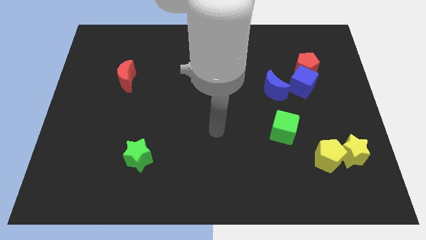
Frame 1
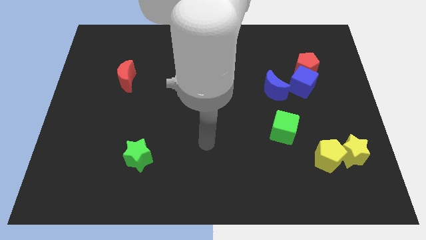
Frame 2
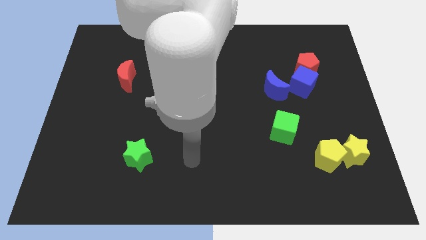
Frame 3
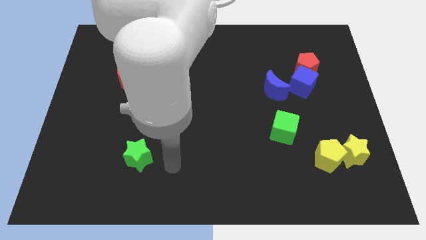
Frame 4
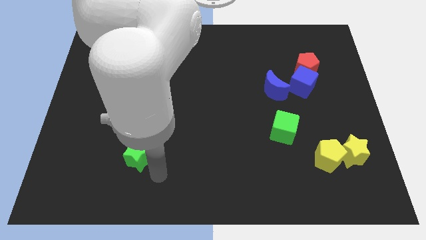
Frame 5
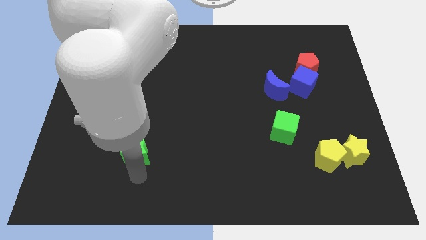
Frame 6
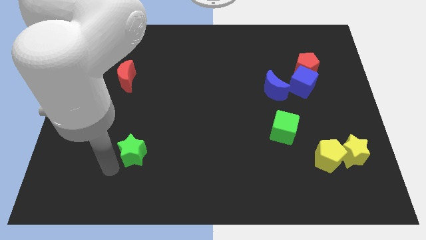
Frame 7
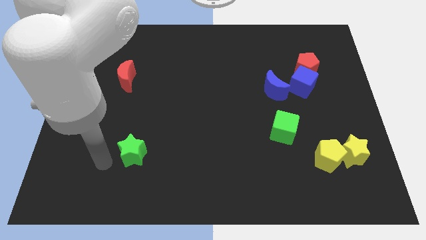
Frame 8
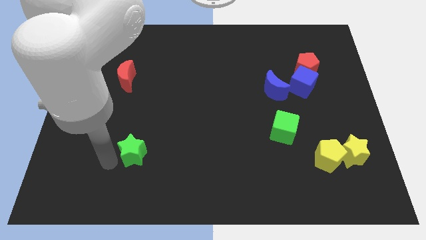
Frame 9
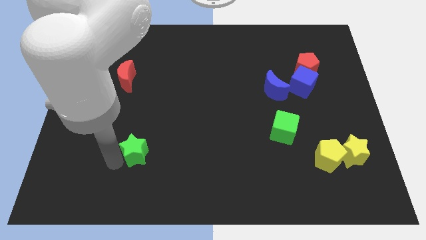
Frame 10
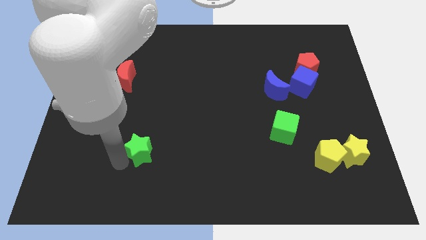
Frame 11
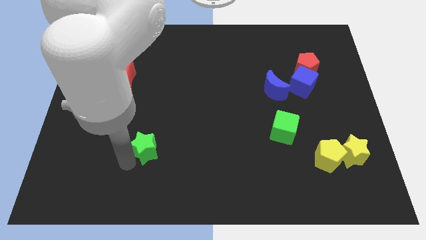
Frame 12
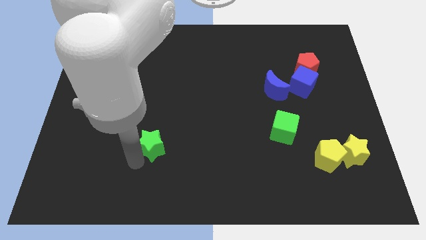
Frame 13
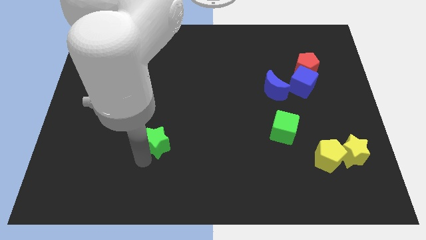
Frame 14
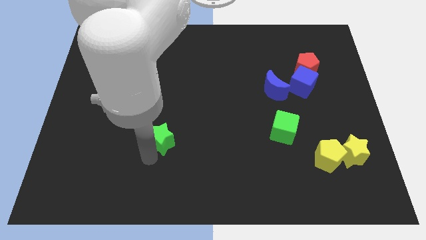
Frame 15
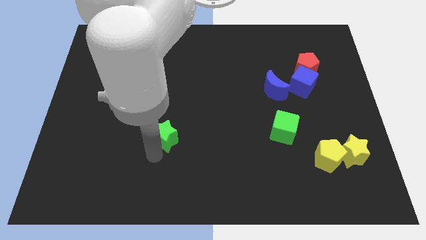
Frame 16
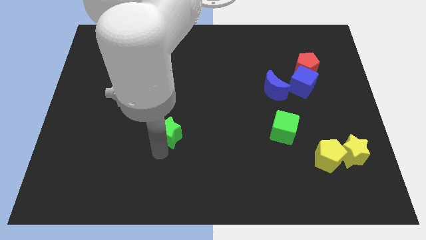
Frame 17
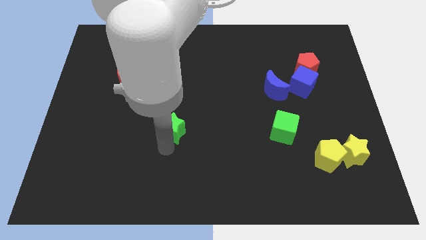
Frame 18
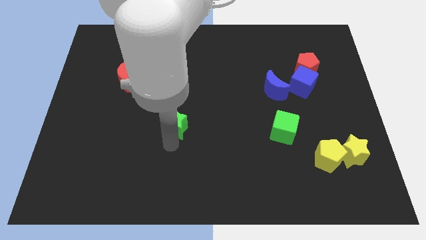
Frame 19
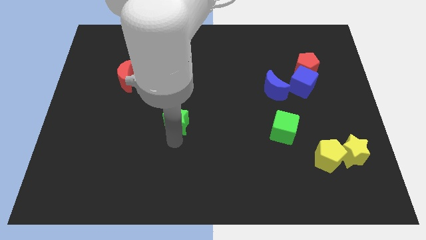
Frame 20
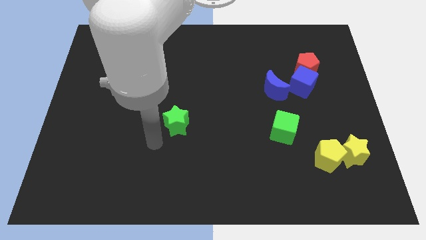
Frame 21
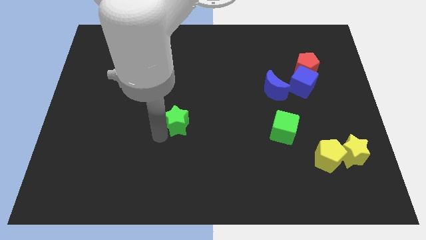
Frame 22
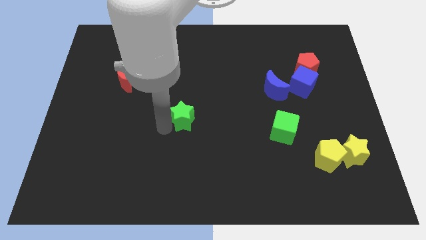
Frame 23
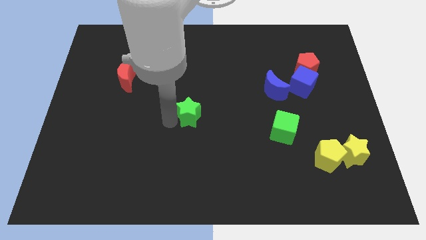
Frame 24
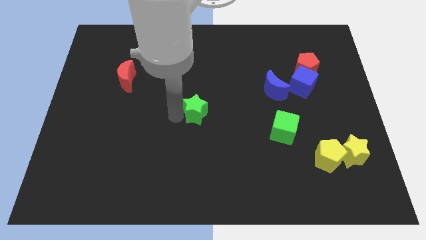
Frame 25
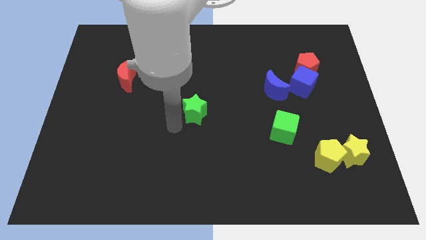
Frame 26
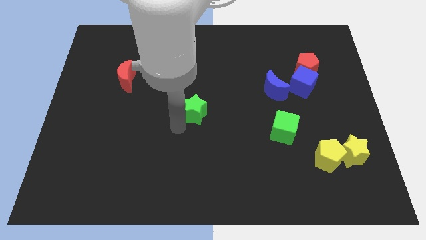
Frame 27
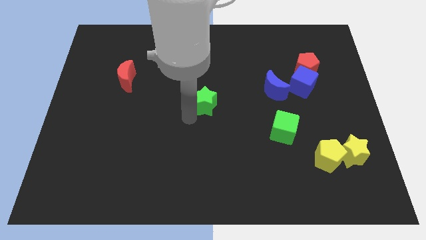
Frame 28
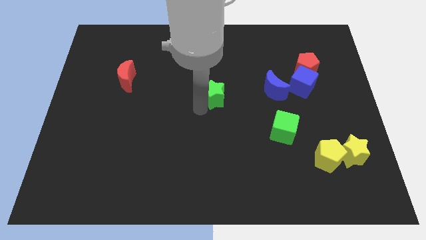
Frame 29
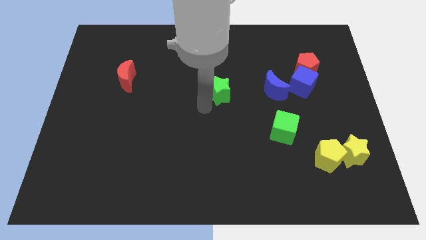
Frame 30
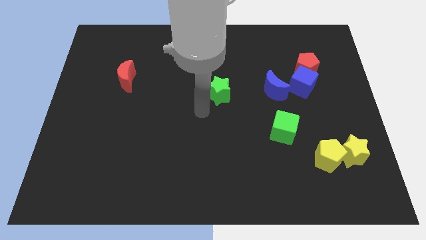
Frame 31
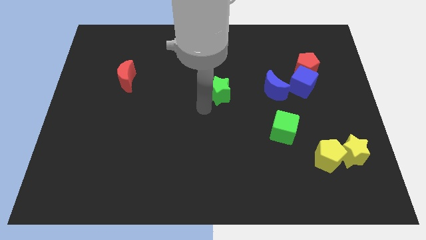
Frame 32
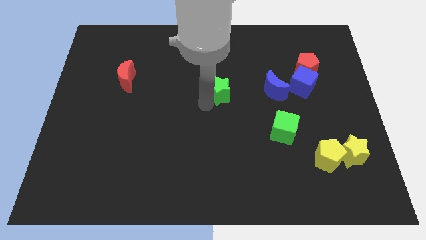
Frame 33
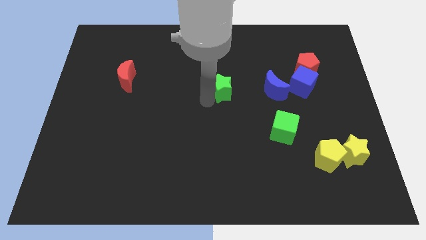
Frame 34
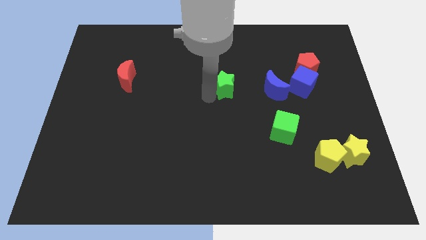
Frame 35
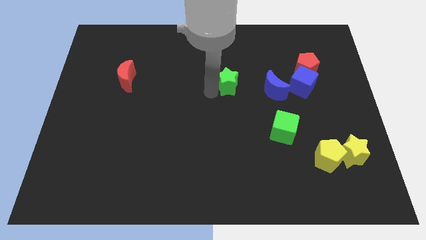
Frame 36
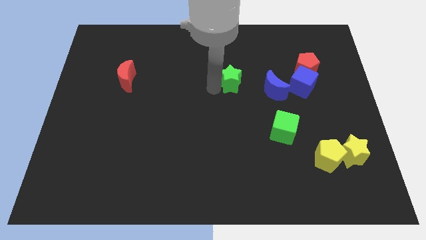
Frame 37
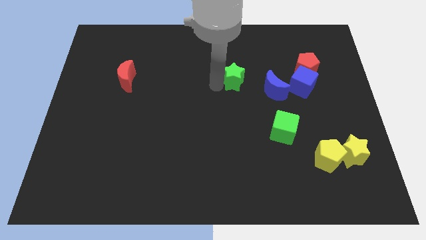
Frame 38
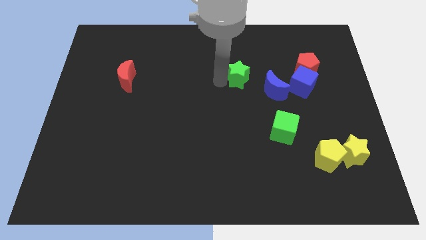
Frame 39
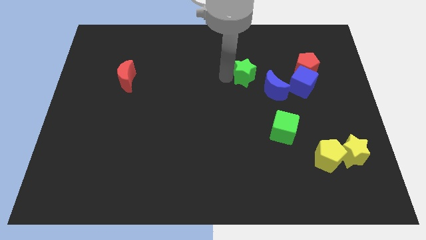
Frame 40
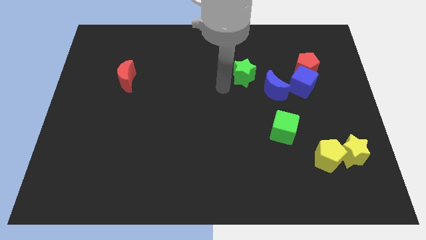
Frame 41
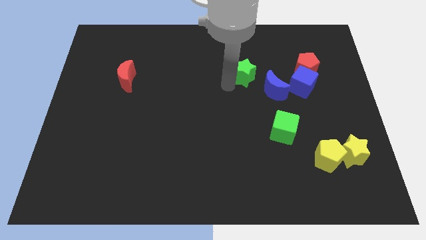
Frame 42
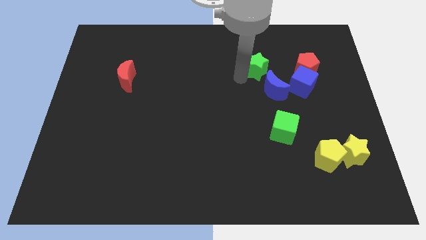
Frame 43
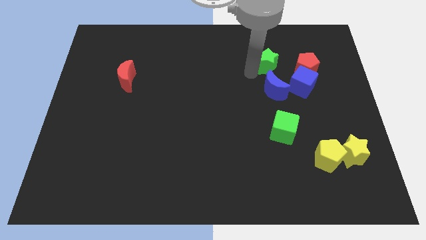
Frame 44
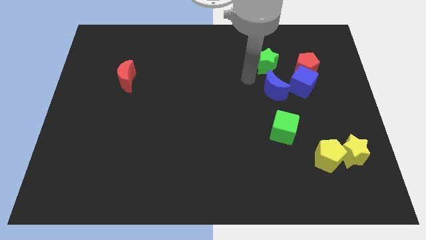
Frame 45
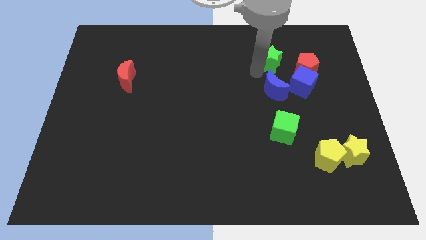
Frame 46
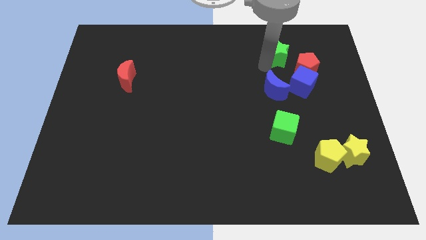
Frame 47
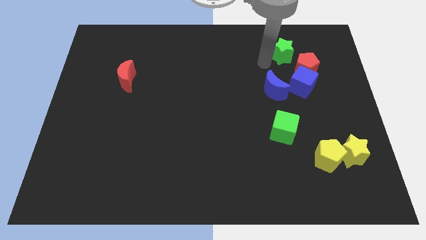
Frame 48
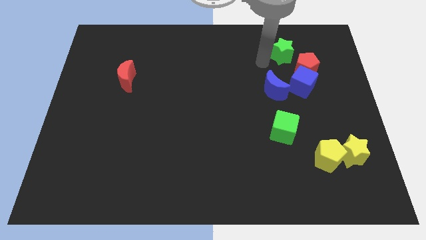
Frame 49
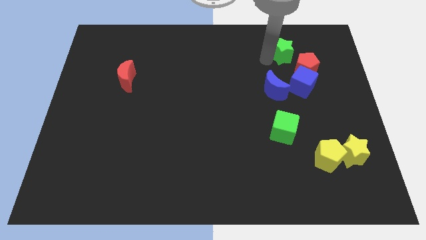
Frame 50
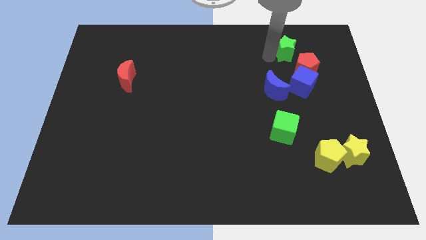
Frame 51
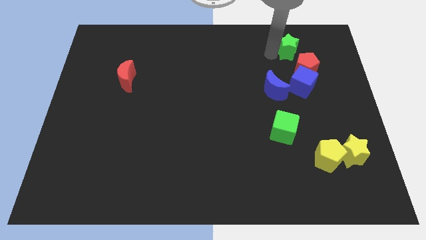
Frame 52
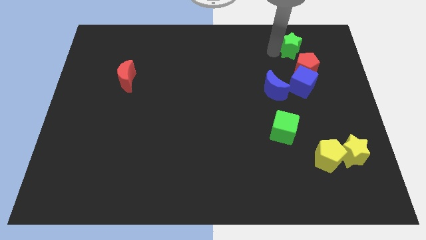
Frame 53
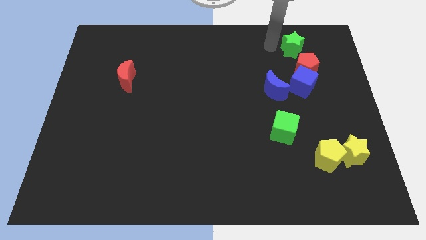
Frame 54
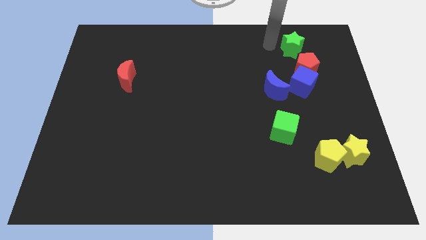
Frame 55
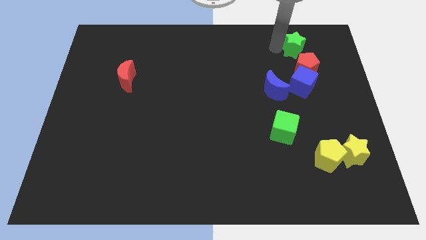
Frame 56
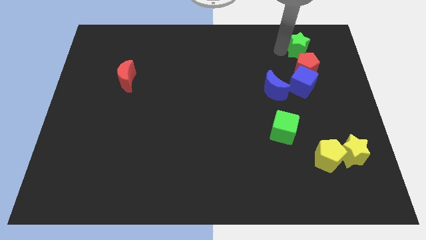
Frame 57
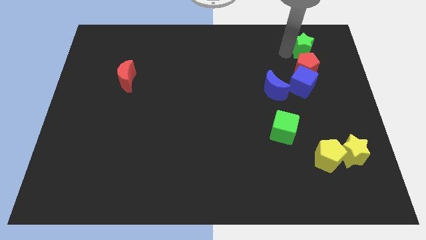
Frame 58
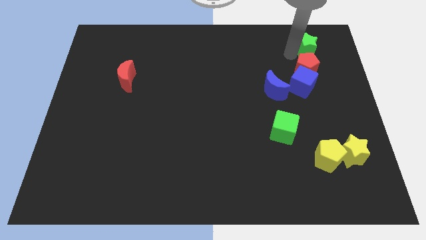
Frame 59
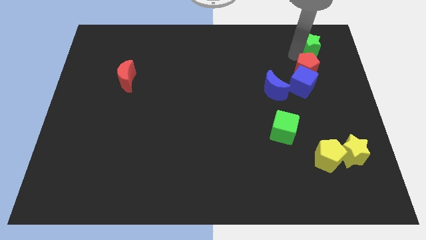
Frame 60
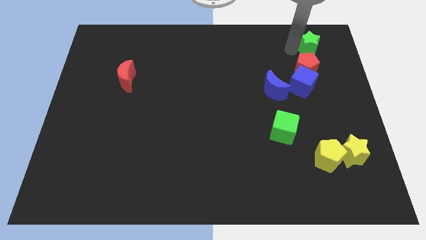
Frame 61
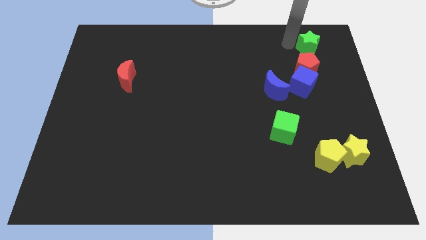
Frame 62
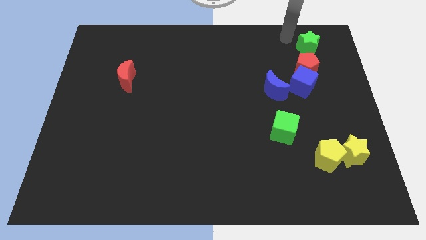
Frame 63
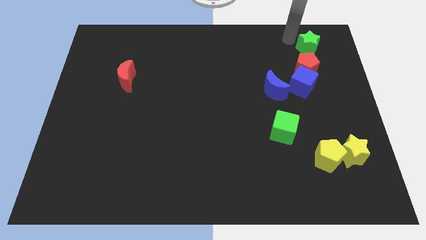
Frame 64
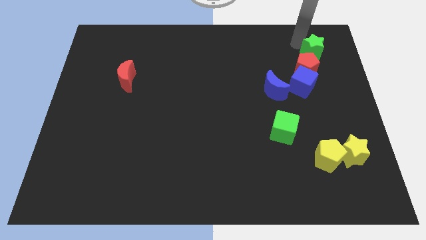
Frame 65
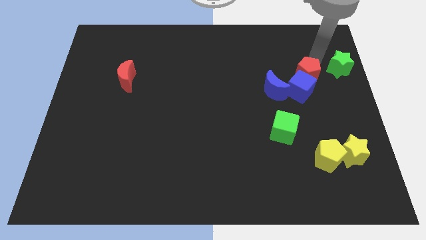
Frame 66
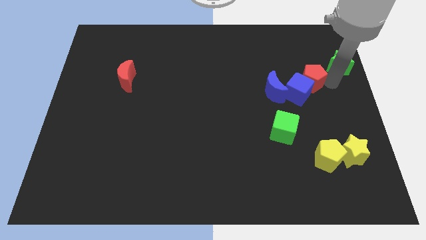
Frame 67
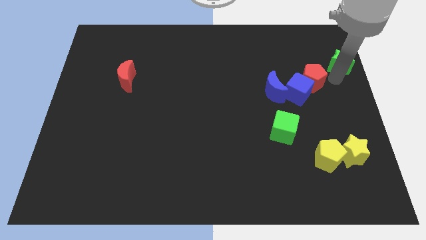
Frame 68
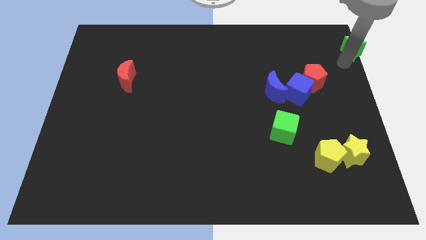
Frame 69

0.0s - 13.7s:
move the green star to the top right
